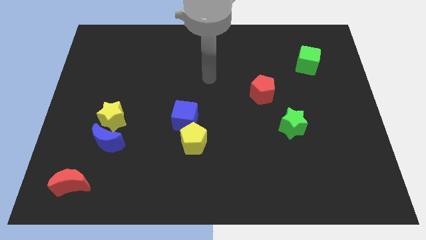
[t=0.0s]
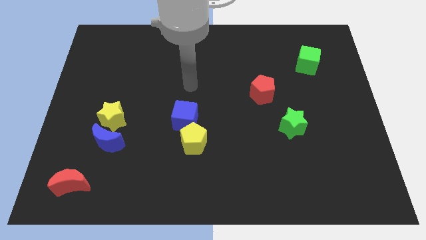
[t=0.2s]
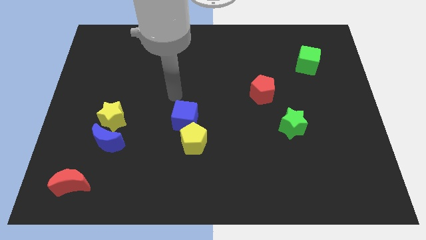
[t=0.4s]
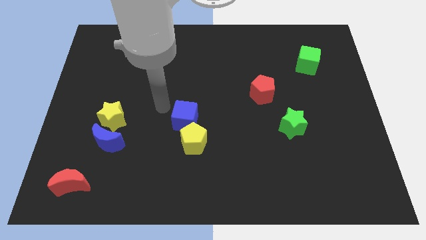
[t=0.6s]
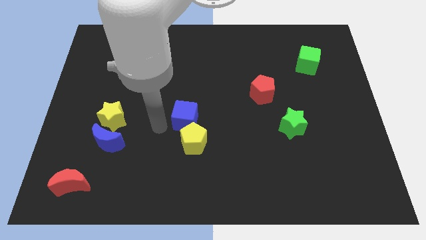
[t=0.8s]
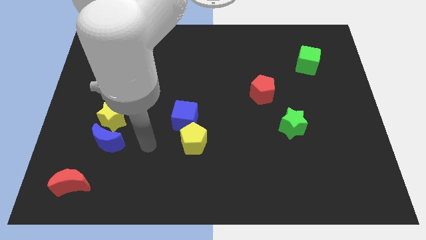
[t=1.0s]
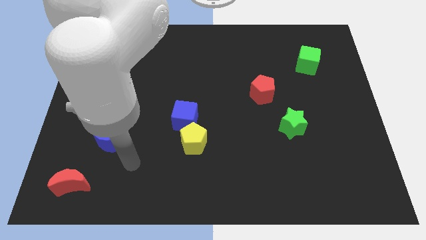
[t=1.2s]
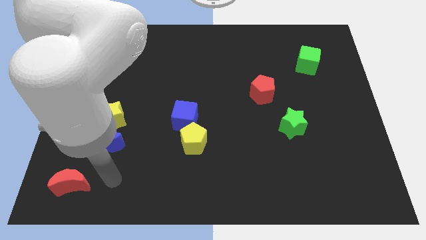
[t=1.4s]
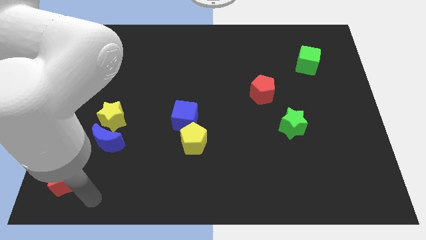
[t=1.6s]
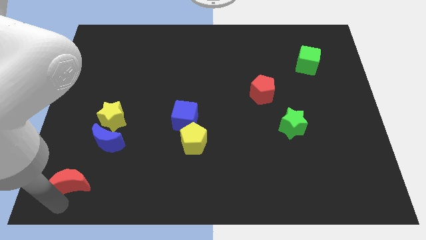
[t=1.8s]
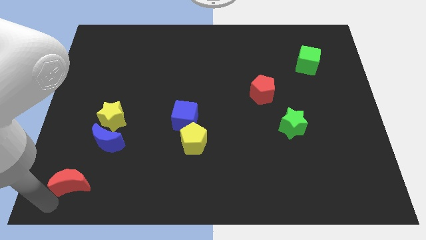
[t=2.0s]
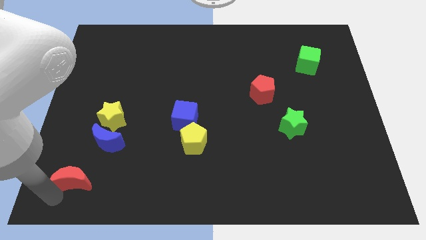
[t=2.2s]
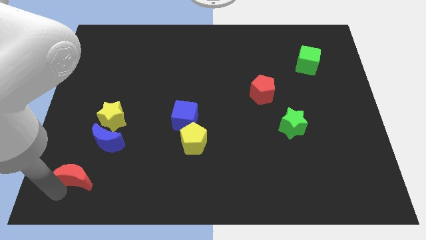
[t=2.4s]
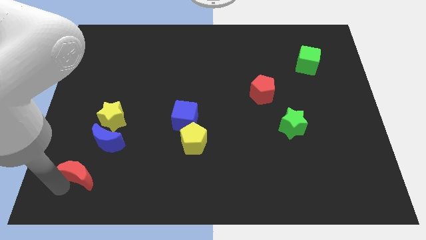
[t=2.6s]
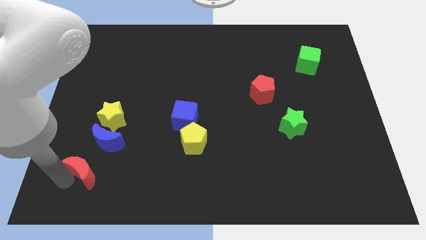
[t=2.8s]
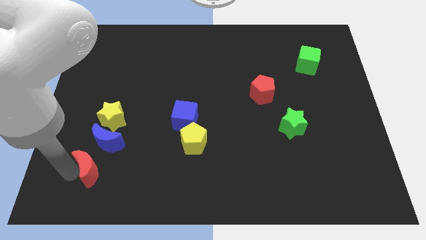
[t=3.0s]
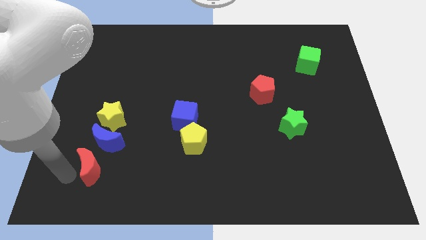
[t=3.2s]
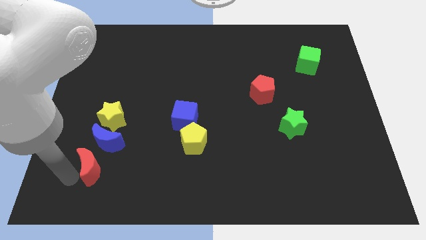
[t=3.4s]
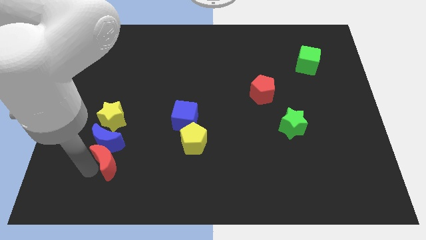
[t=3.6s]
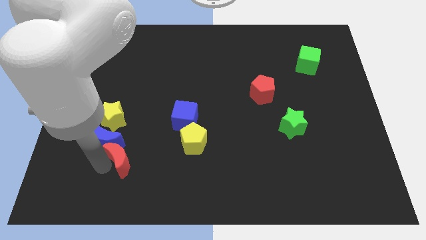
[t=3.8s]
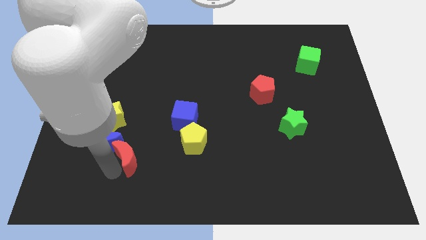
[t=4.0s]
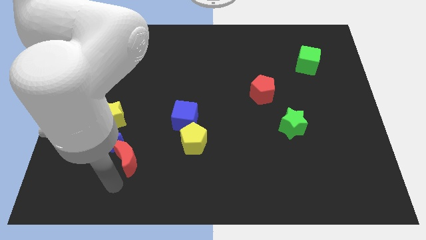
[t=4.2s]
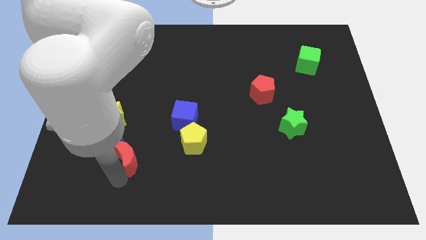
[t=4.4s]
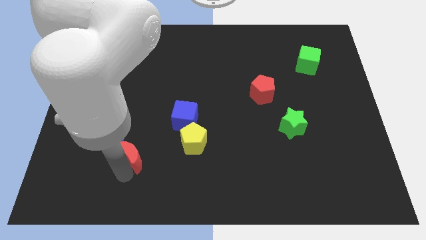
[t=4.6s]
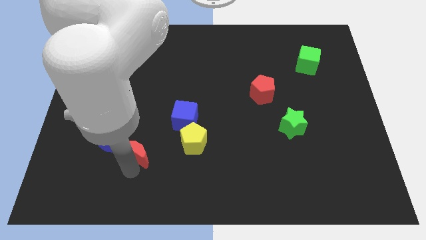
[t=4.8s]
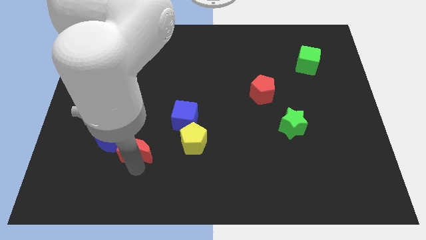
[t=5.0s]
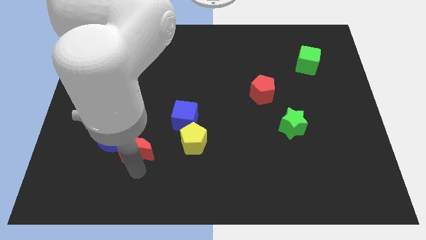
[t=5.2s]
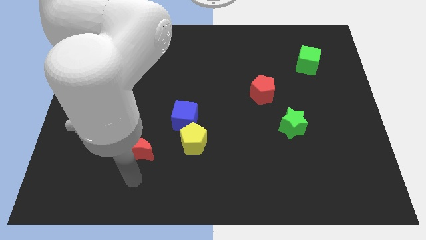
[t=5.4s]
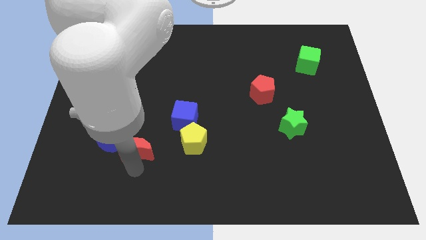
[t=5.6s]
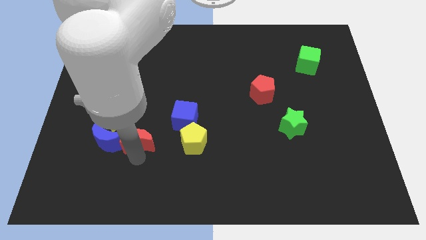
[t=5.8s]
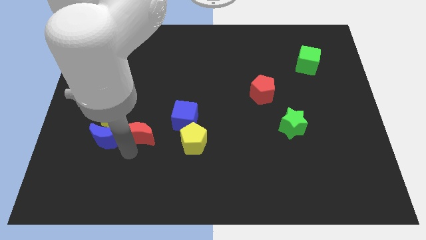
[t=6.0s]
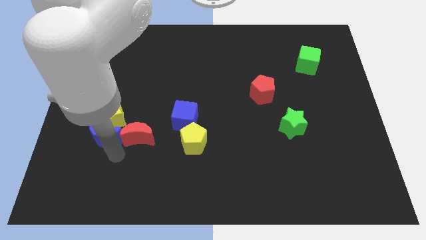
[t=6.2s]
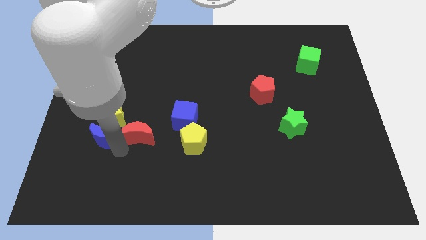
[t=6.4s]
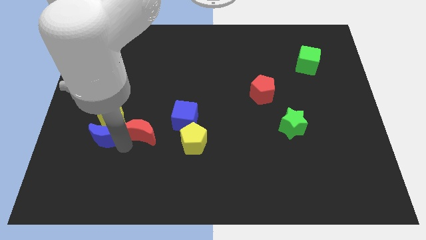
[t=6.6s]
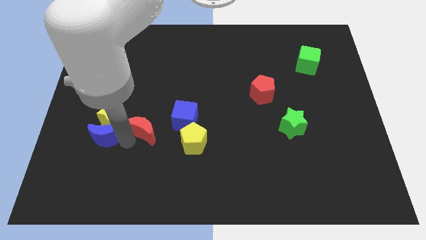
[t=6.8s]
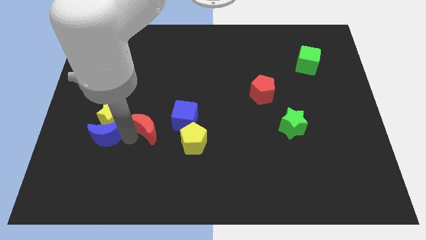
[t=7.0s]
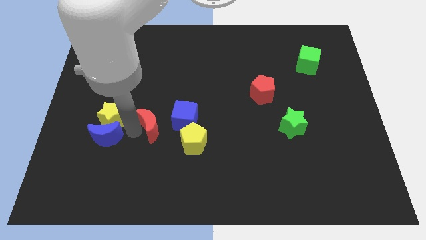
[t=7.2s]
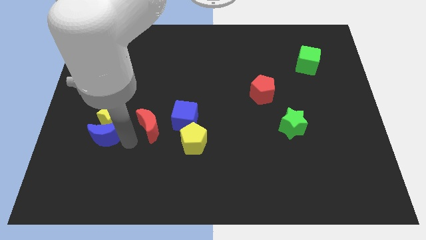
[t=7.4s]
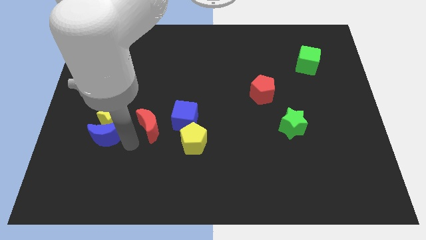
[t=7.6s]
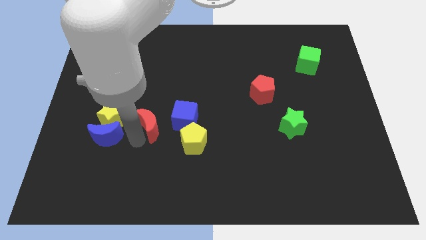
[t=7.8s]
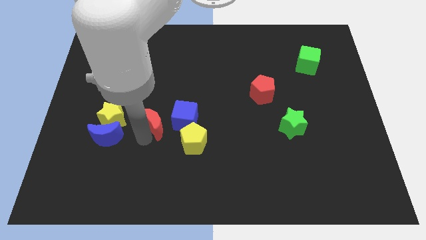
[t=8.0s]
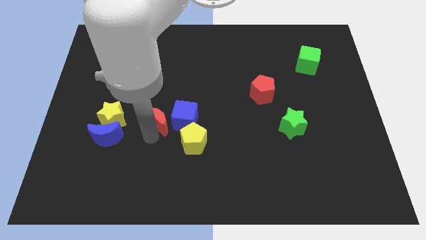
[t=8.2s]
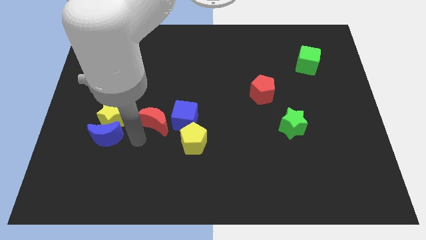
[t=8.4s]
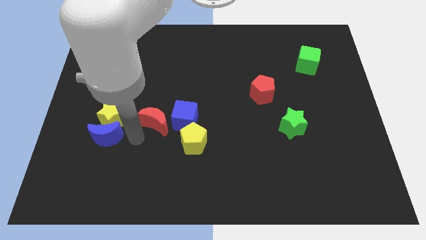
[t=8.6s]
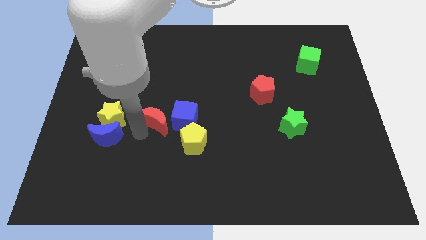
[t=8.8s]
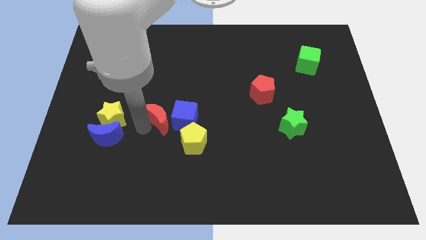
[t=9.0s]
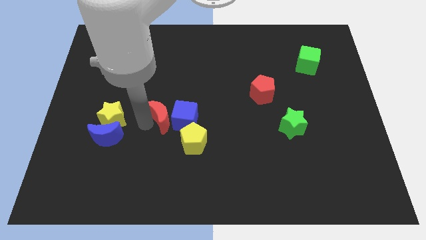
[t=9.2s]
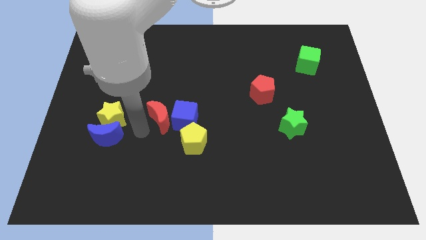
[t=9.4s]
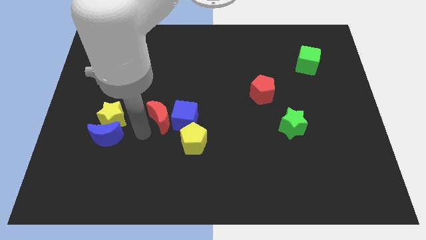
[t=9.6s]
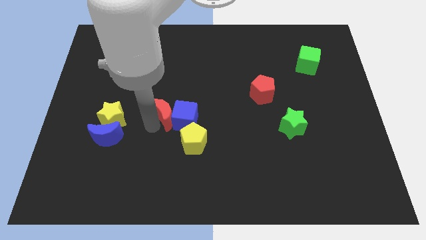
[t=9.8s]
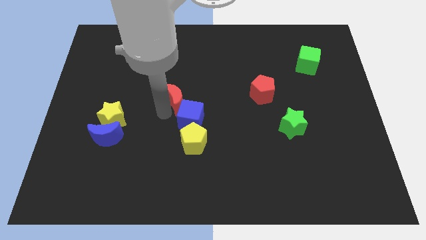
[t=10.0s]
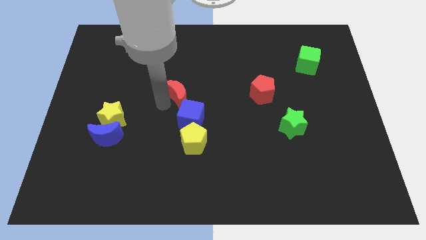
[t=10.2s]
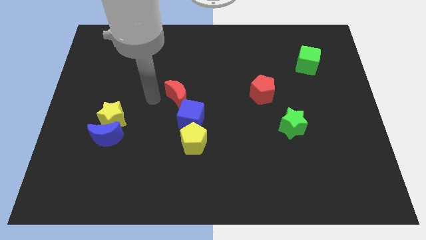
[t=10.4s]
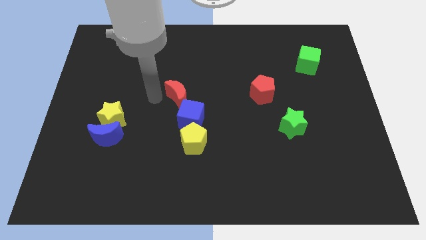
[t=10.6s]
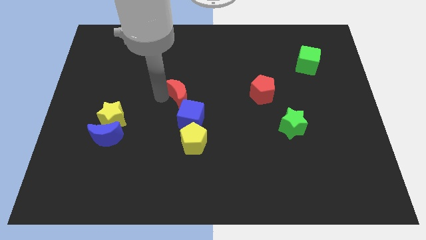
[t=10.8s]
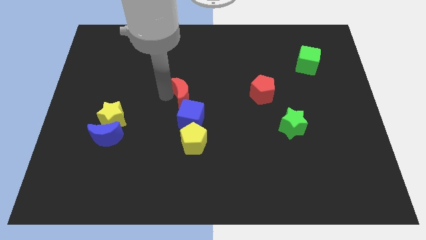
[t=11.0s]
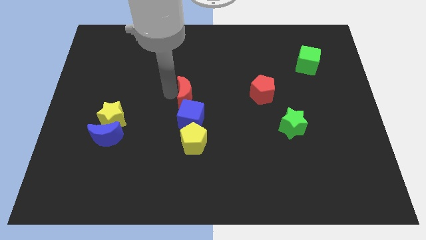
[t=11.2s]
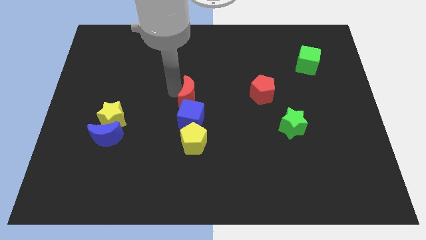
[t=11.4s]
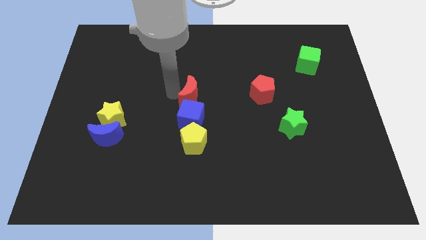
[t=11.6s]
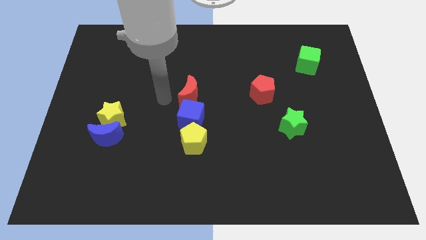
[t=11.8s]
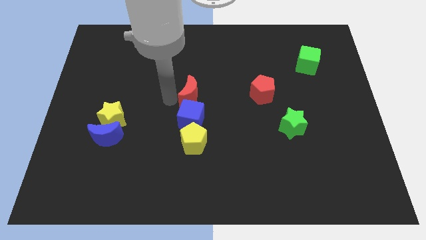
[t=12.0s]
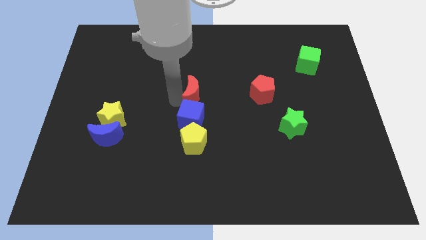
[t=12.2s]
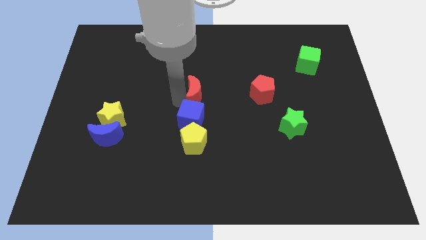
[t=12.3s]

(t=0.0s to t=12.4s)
push the red moon to the left side of the red pentagon
